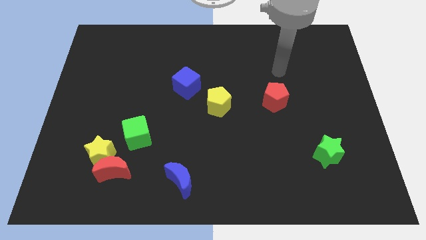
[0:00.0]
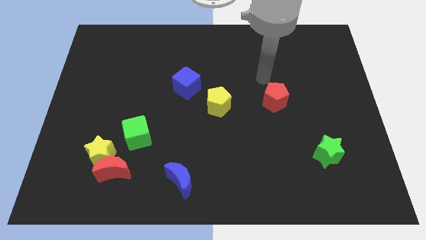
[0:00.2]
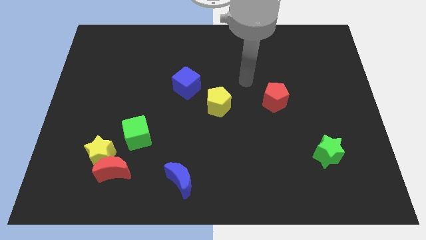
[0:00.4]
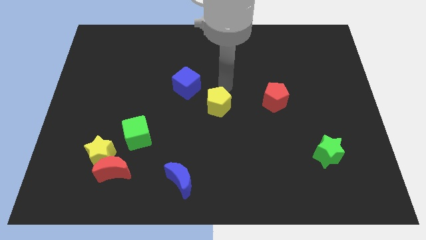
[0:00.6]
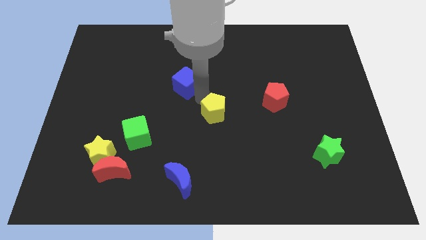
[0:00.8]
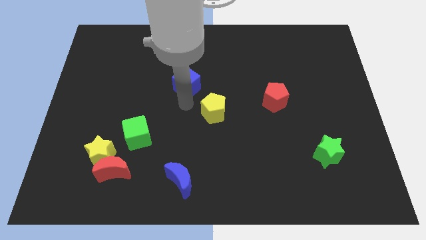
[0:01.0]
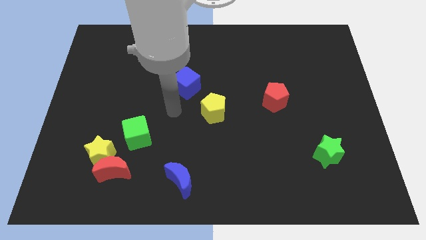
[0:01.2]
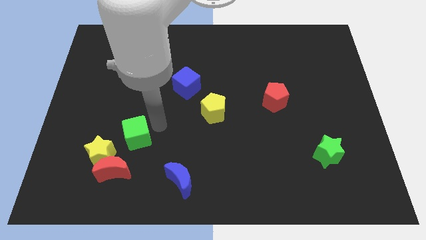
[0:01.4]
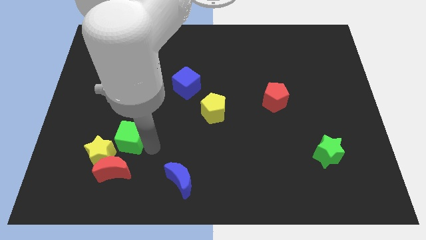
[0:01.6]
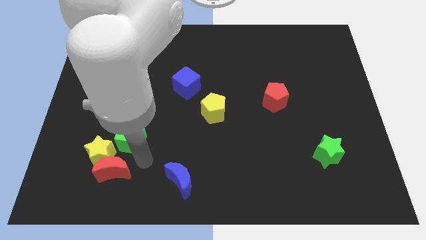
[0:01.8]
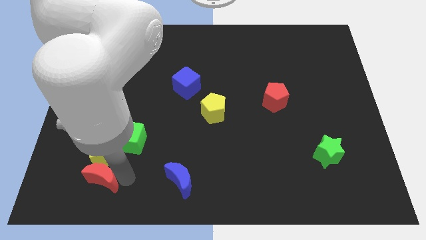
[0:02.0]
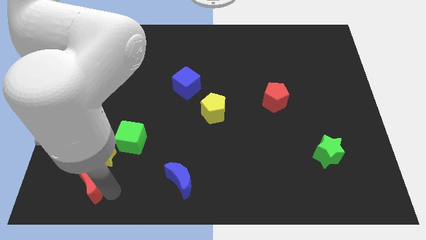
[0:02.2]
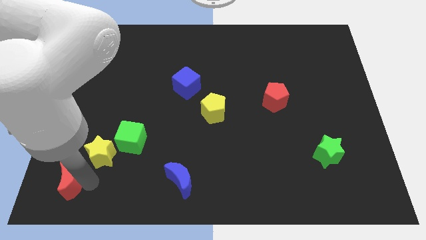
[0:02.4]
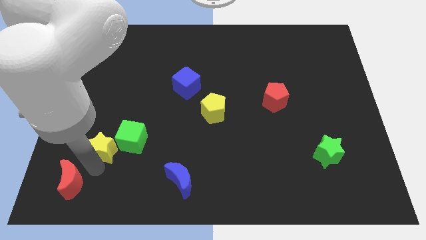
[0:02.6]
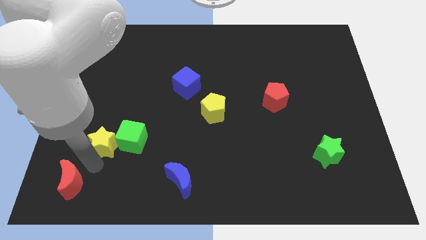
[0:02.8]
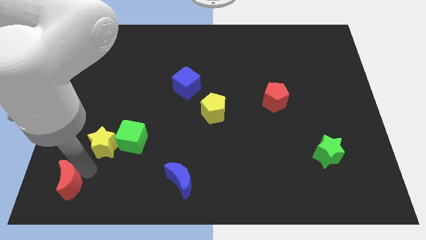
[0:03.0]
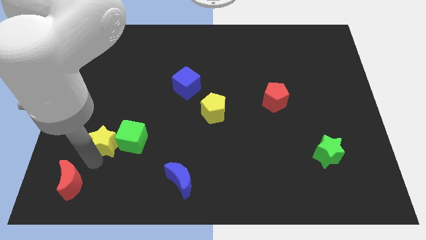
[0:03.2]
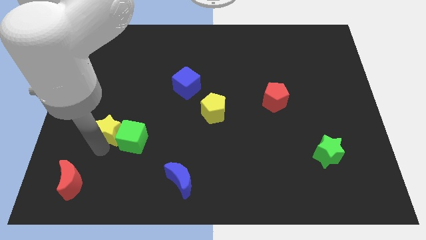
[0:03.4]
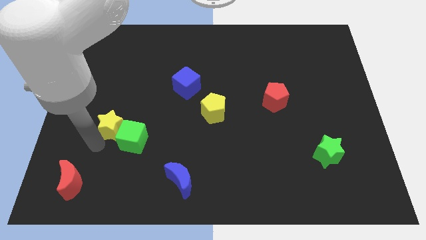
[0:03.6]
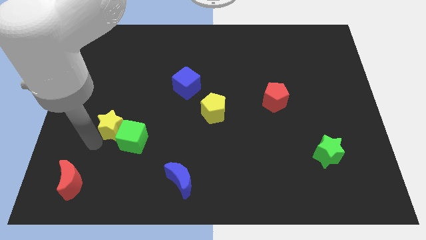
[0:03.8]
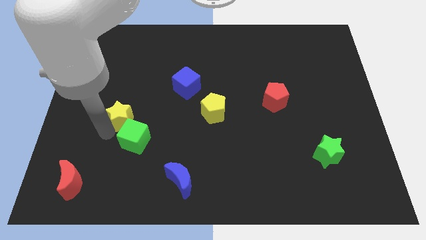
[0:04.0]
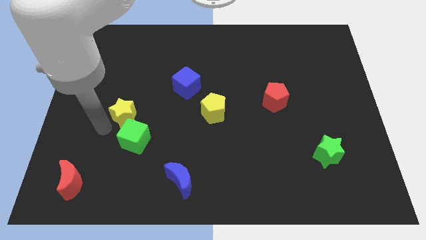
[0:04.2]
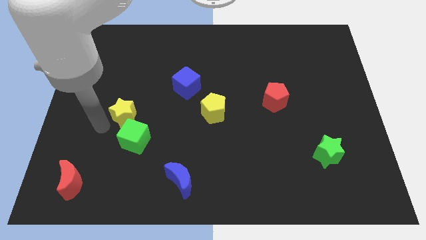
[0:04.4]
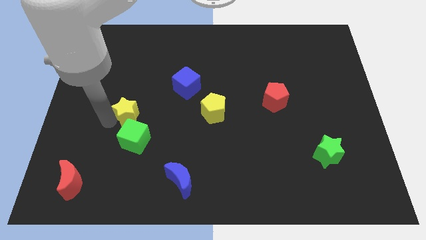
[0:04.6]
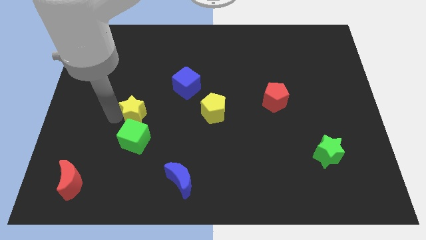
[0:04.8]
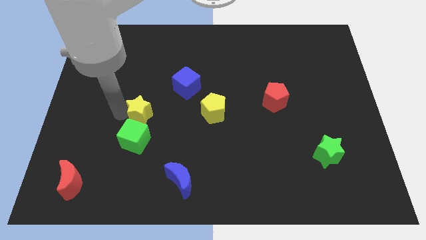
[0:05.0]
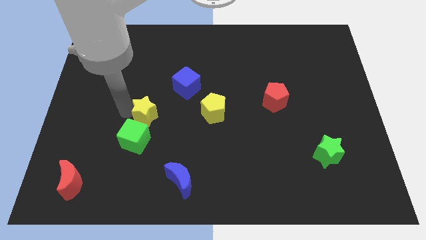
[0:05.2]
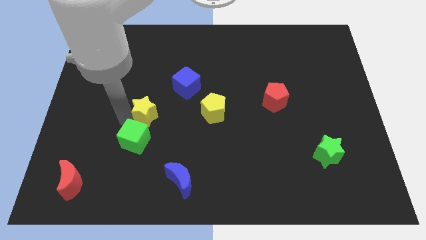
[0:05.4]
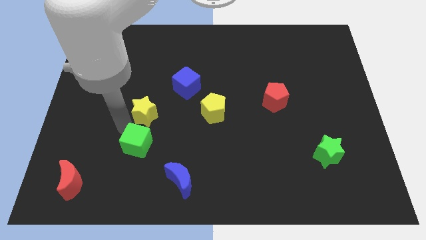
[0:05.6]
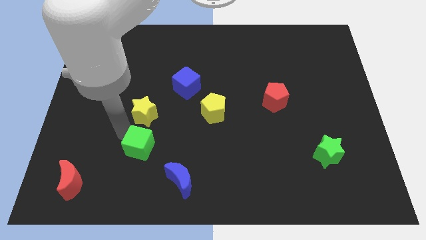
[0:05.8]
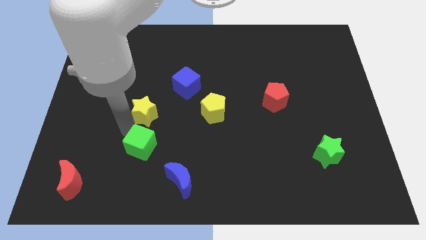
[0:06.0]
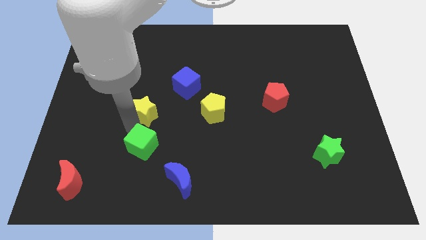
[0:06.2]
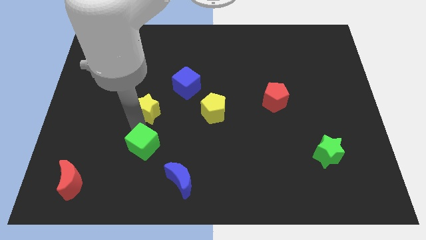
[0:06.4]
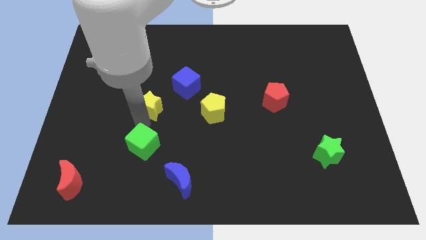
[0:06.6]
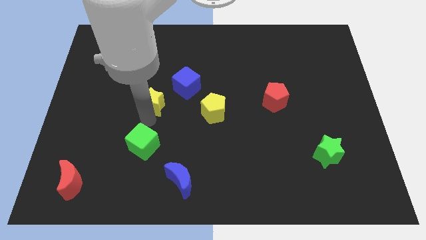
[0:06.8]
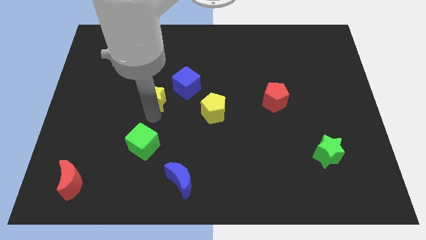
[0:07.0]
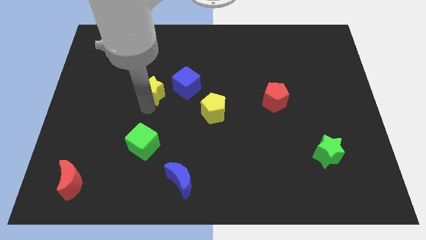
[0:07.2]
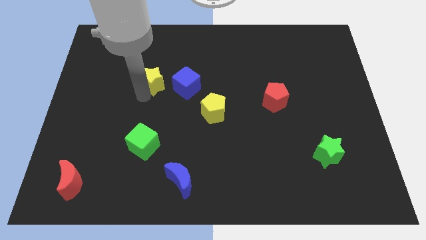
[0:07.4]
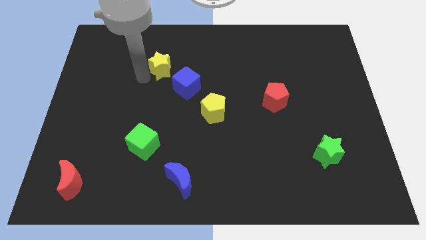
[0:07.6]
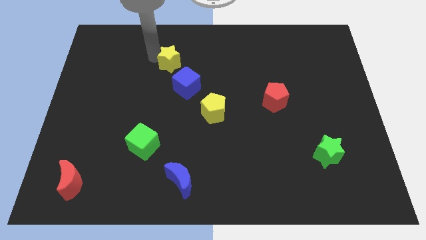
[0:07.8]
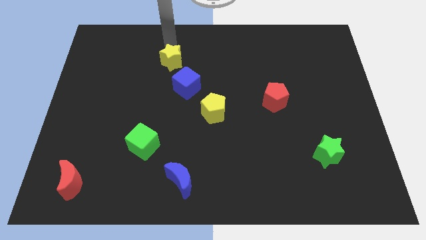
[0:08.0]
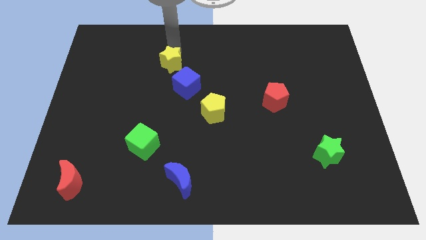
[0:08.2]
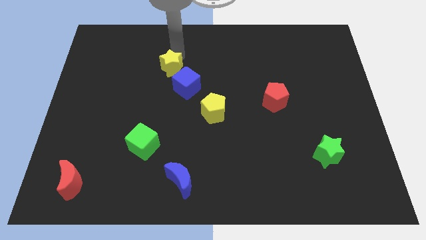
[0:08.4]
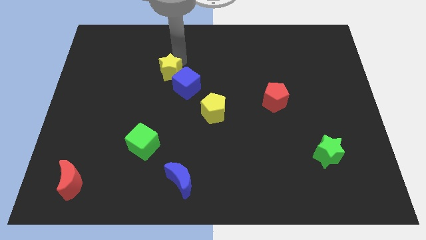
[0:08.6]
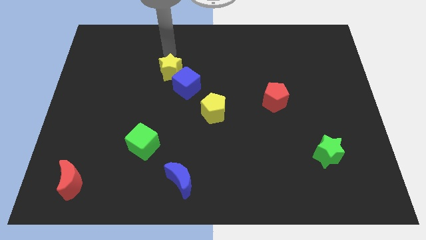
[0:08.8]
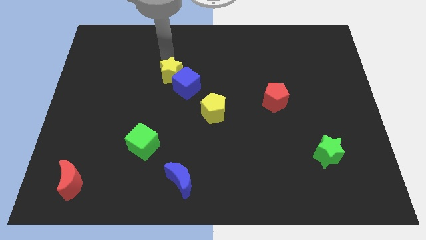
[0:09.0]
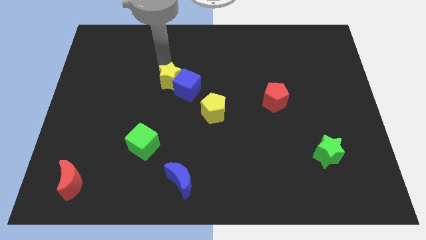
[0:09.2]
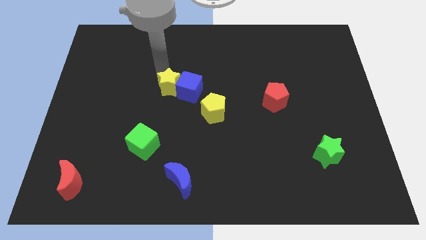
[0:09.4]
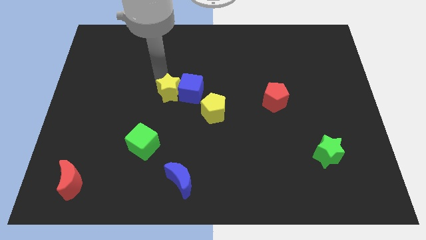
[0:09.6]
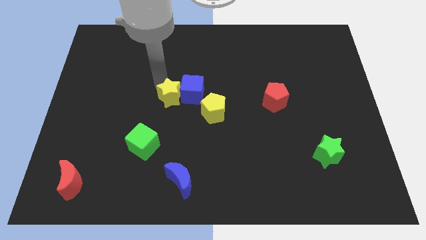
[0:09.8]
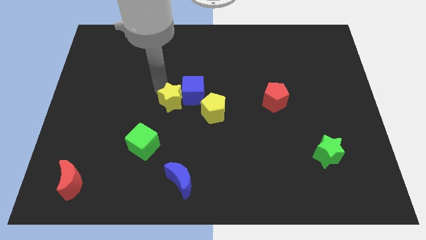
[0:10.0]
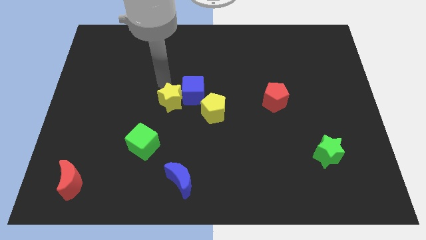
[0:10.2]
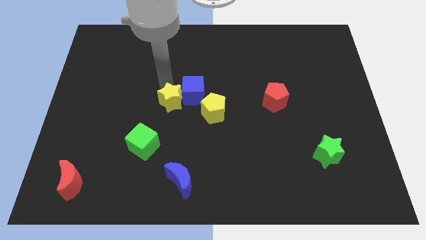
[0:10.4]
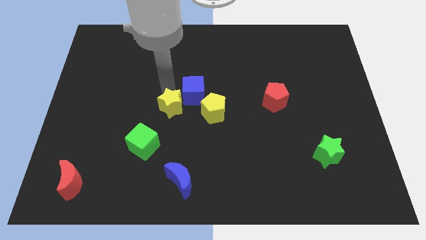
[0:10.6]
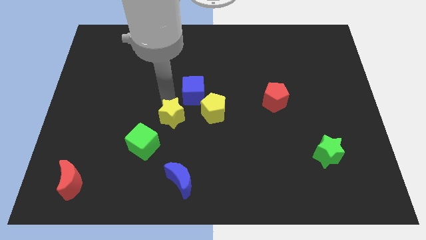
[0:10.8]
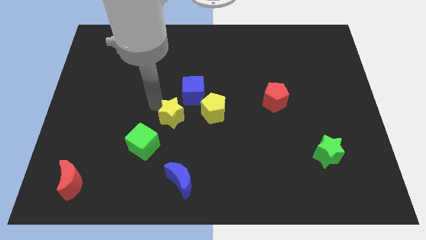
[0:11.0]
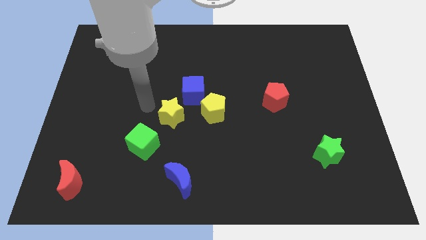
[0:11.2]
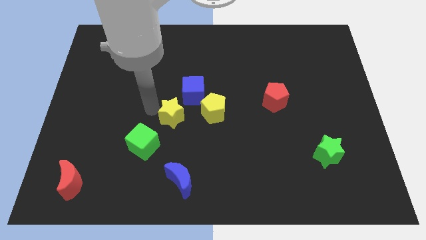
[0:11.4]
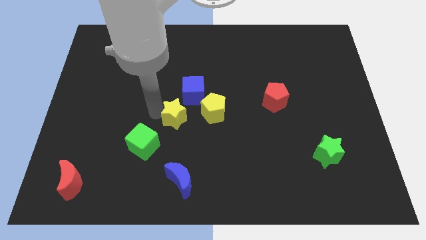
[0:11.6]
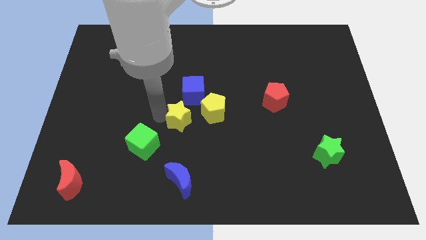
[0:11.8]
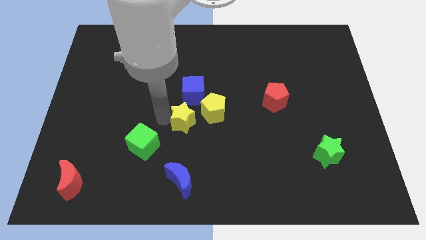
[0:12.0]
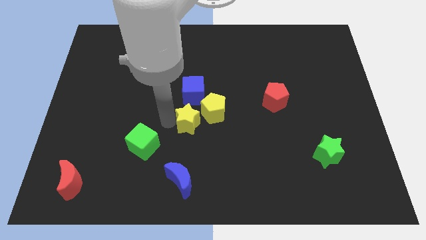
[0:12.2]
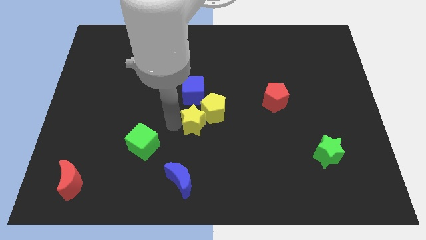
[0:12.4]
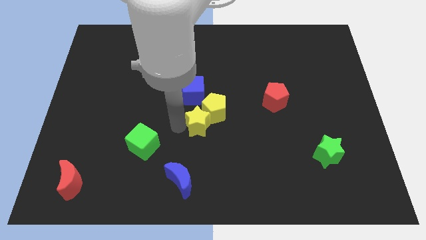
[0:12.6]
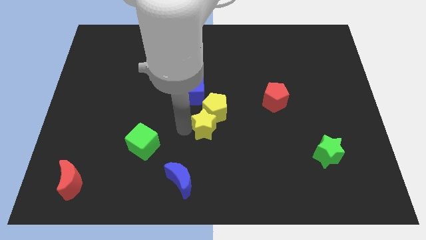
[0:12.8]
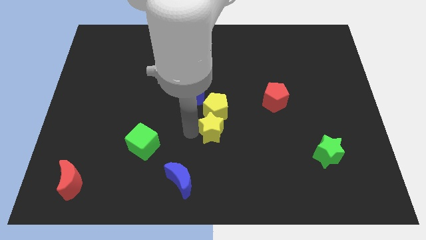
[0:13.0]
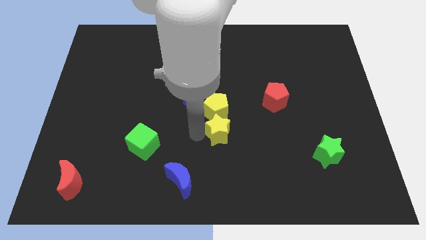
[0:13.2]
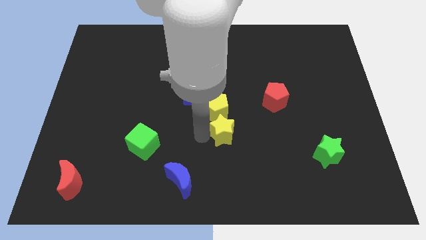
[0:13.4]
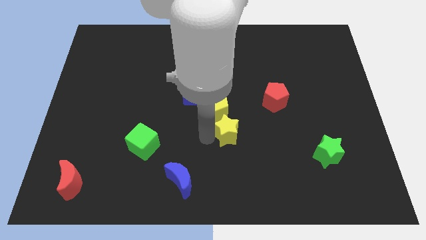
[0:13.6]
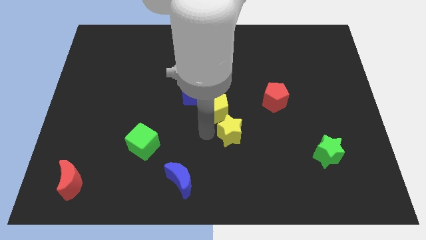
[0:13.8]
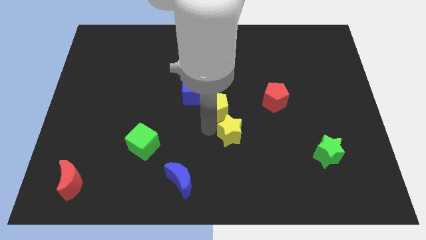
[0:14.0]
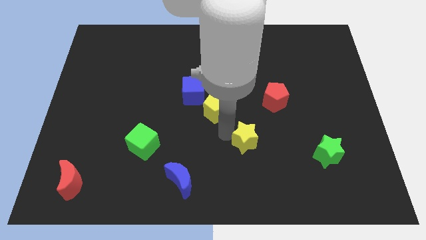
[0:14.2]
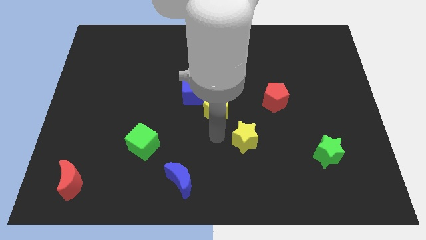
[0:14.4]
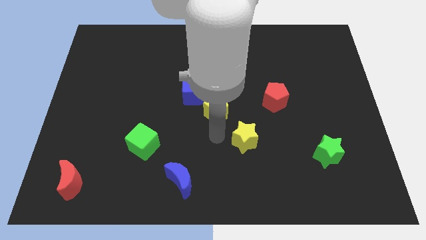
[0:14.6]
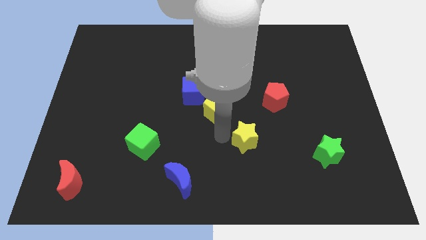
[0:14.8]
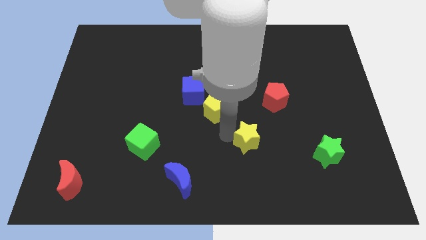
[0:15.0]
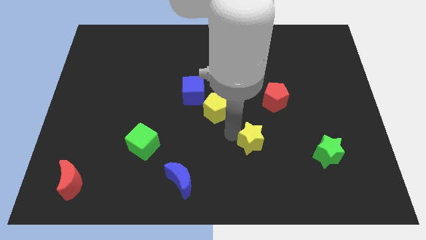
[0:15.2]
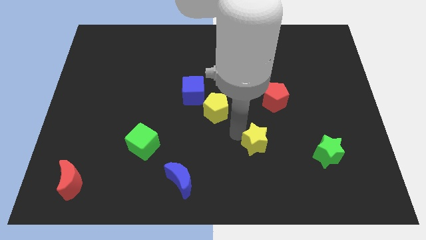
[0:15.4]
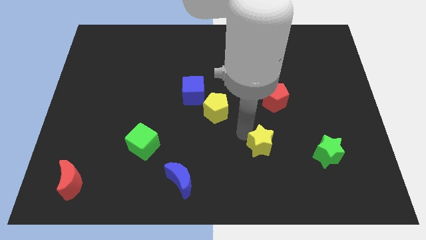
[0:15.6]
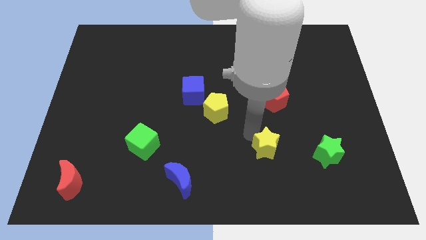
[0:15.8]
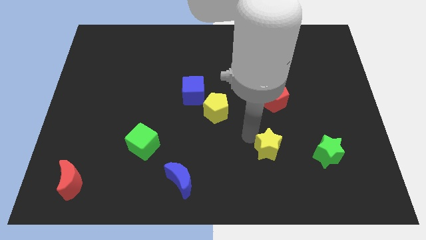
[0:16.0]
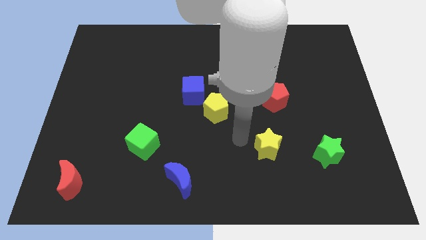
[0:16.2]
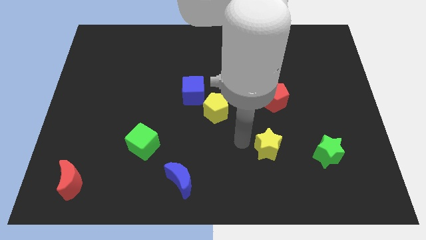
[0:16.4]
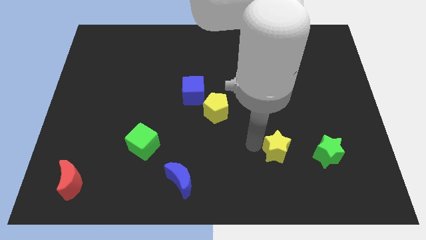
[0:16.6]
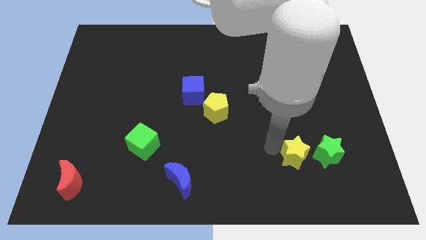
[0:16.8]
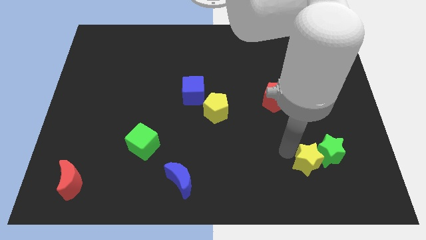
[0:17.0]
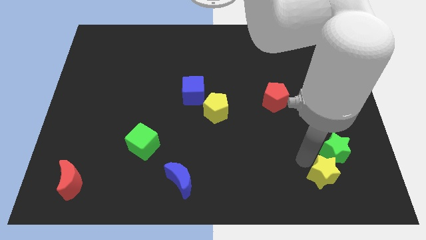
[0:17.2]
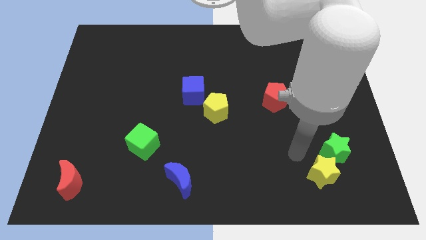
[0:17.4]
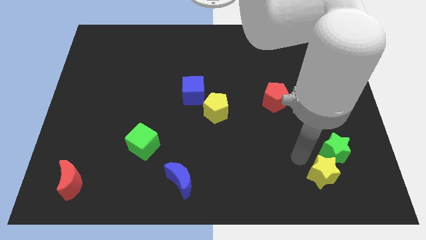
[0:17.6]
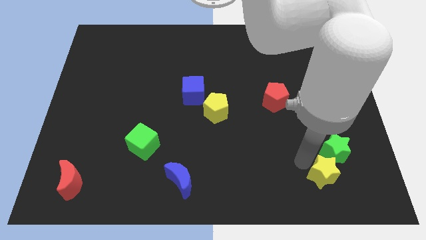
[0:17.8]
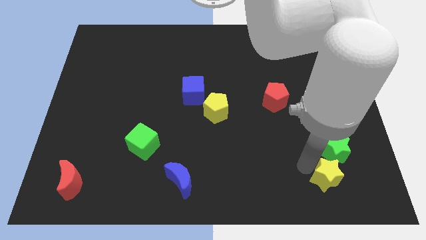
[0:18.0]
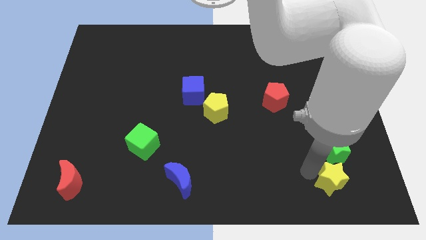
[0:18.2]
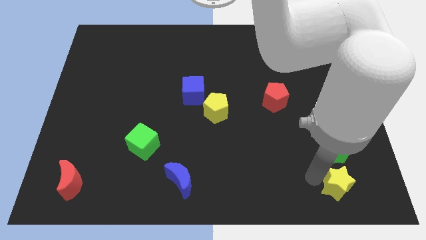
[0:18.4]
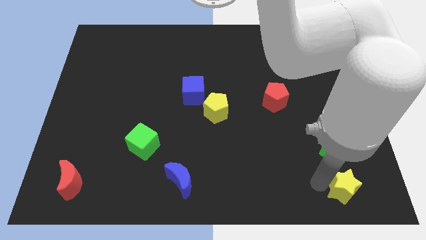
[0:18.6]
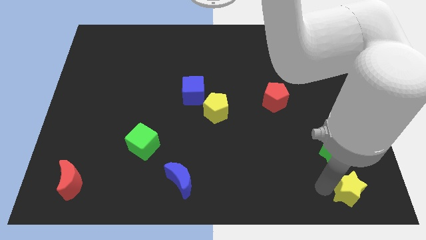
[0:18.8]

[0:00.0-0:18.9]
move the yellow star to the lower right corner
